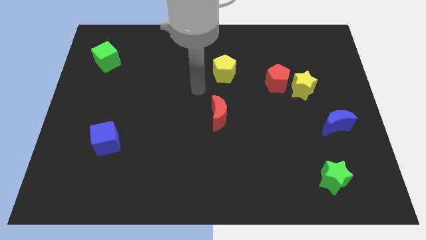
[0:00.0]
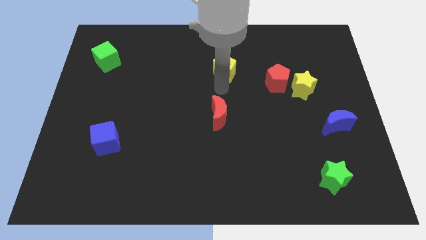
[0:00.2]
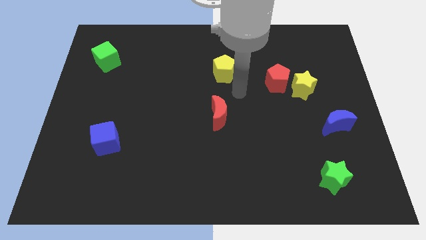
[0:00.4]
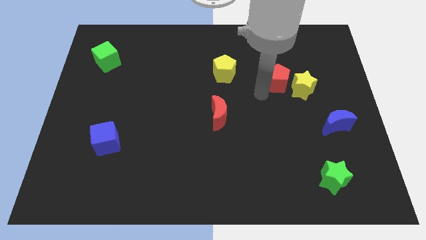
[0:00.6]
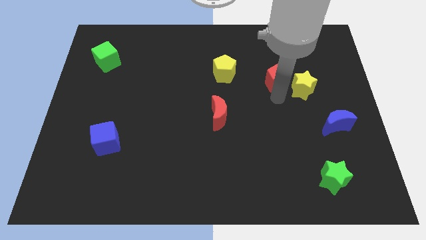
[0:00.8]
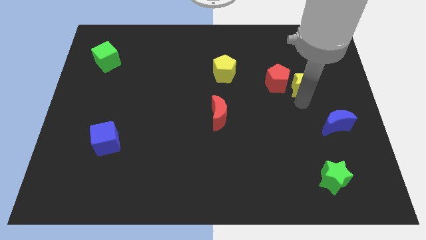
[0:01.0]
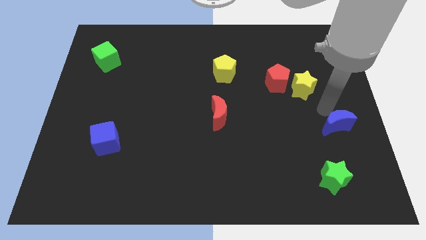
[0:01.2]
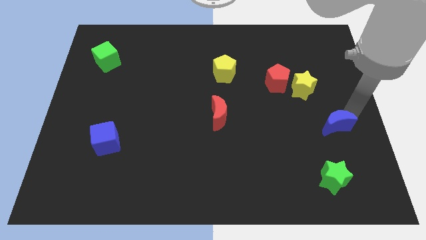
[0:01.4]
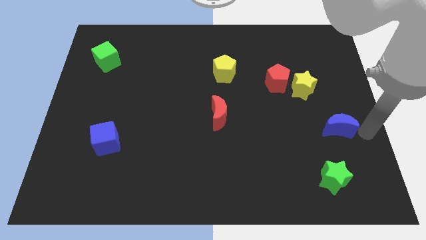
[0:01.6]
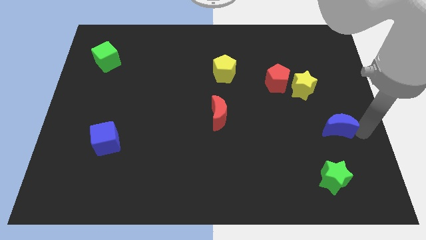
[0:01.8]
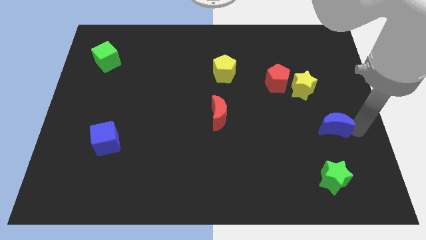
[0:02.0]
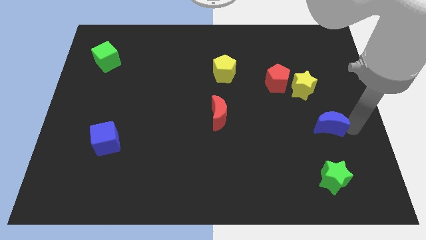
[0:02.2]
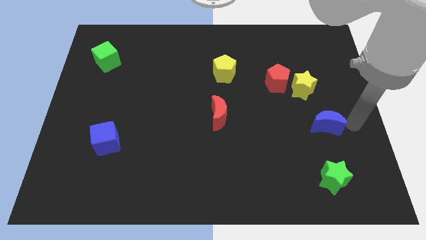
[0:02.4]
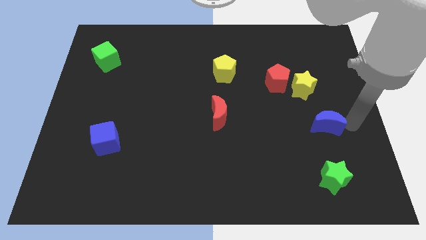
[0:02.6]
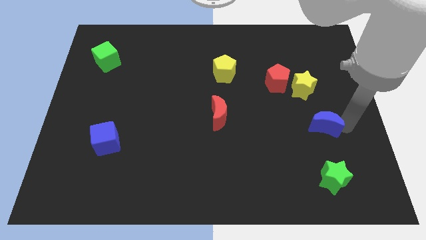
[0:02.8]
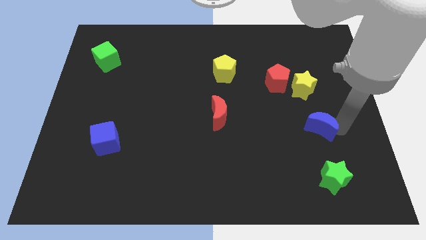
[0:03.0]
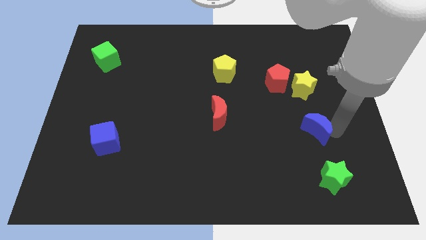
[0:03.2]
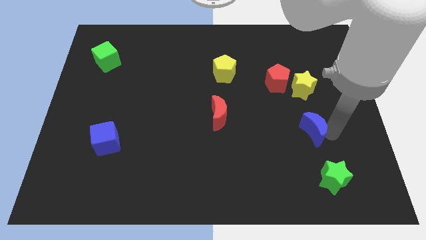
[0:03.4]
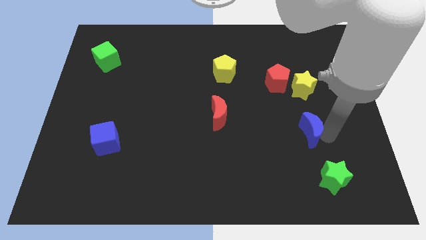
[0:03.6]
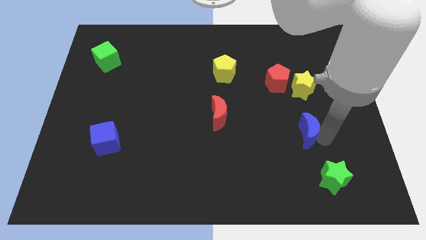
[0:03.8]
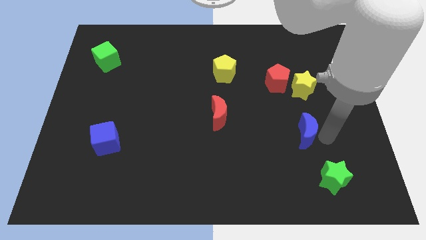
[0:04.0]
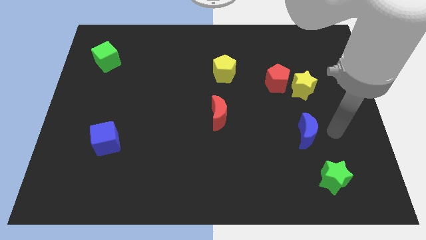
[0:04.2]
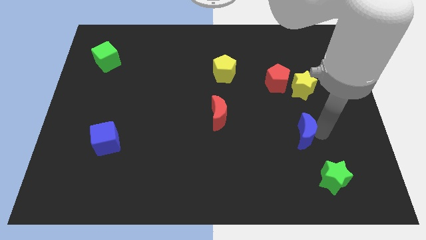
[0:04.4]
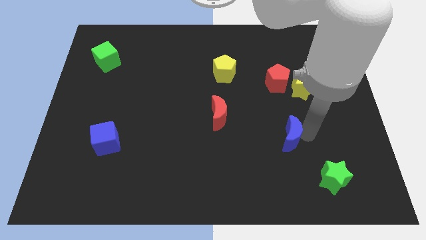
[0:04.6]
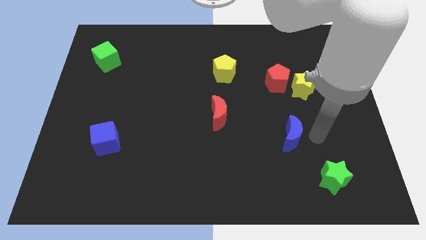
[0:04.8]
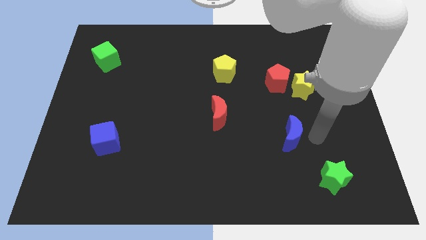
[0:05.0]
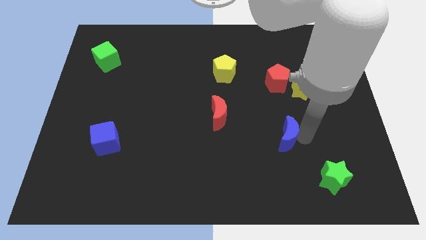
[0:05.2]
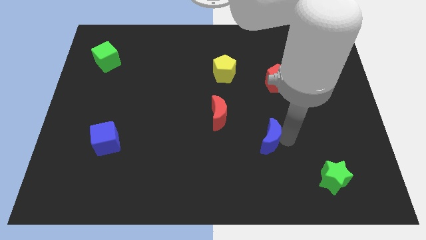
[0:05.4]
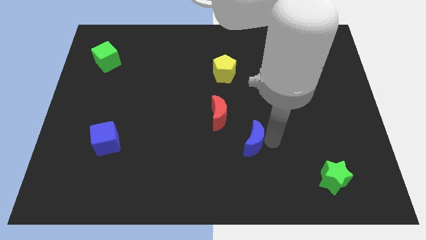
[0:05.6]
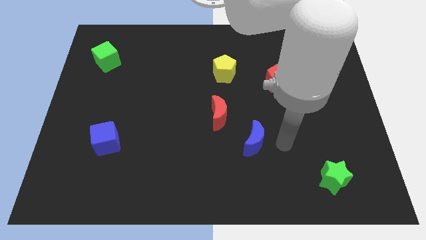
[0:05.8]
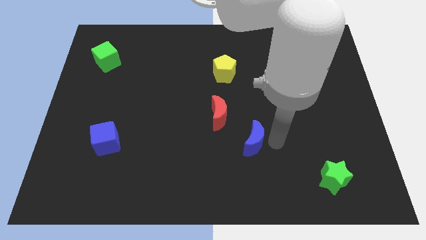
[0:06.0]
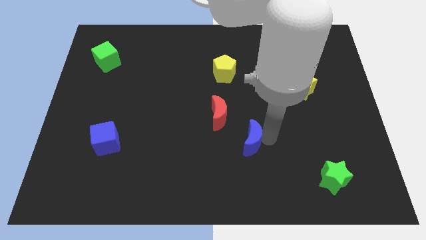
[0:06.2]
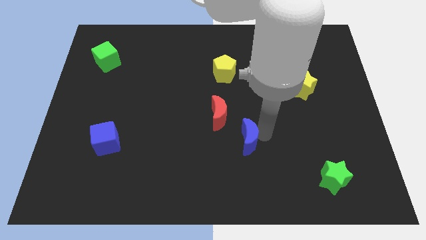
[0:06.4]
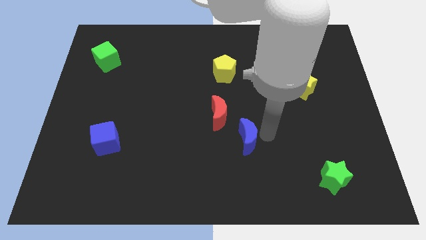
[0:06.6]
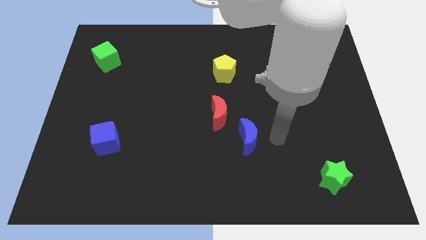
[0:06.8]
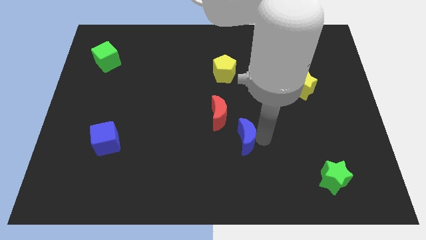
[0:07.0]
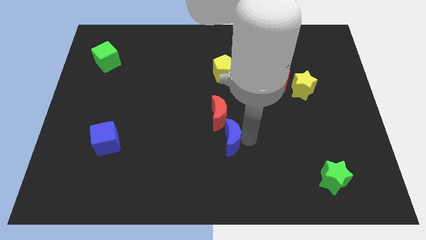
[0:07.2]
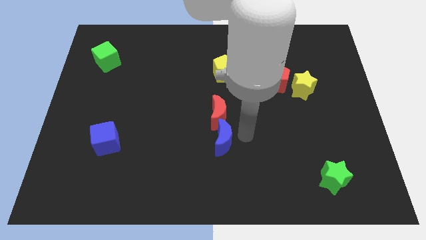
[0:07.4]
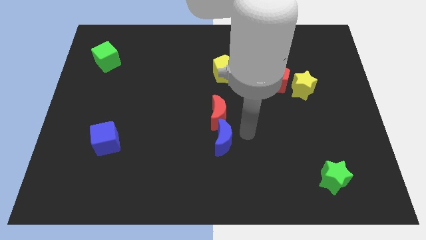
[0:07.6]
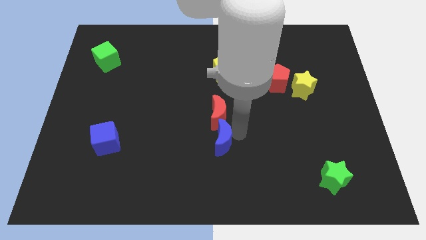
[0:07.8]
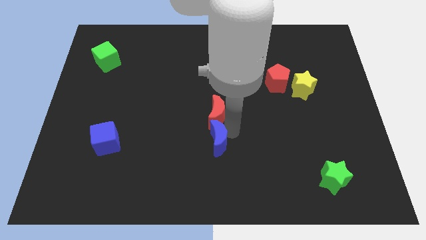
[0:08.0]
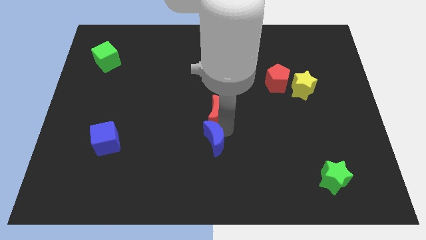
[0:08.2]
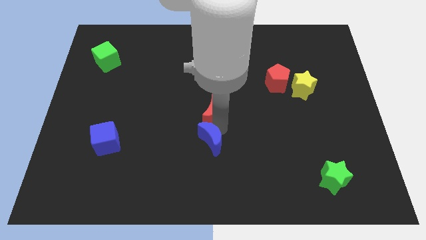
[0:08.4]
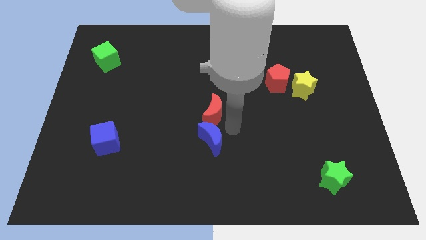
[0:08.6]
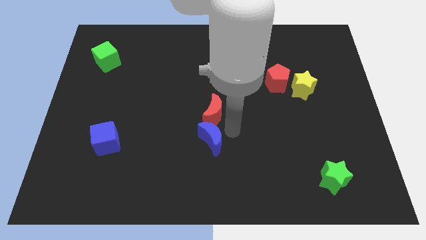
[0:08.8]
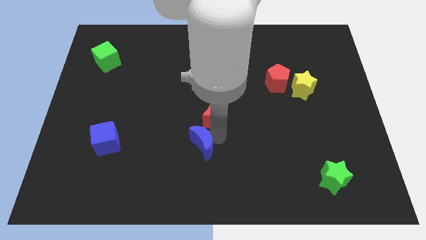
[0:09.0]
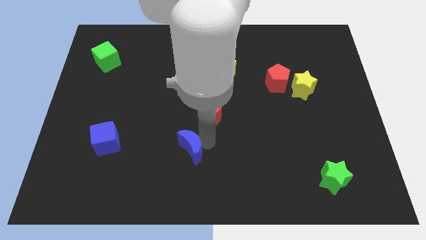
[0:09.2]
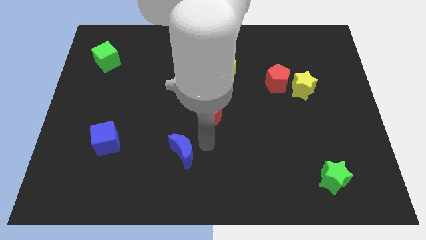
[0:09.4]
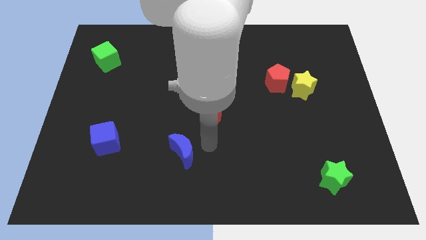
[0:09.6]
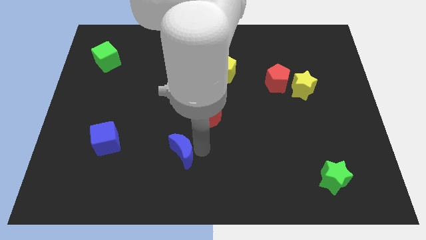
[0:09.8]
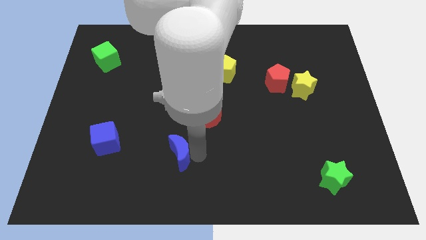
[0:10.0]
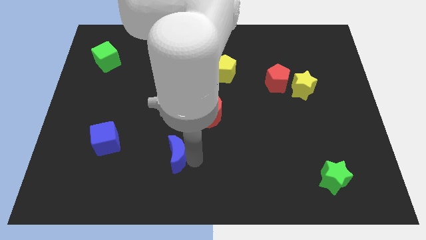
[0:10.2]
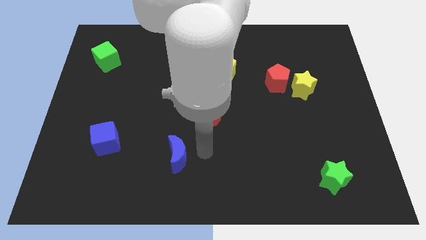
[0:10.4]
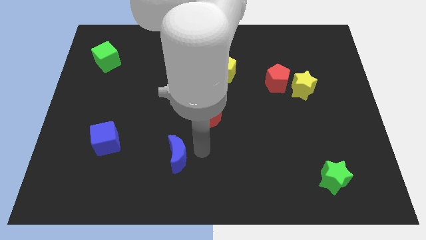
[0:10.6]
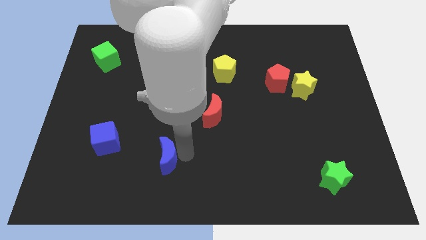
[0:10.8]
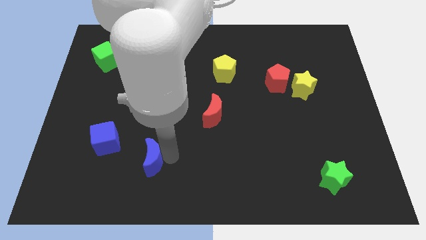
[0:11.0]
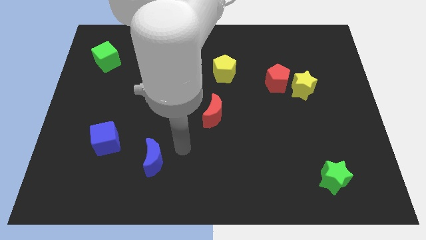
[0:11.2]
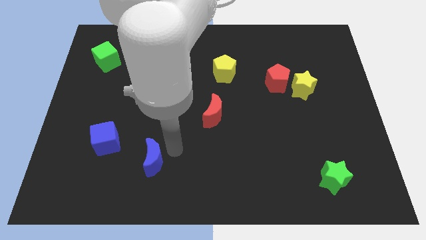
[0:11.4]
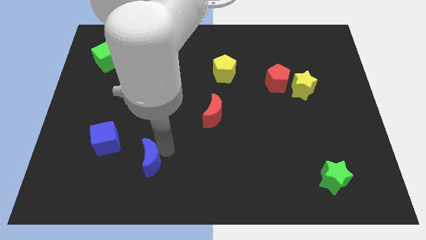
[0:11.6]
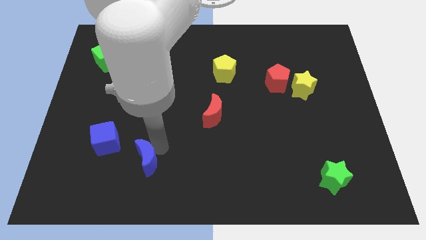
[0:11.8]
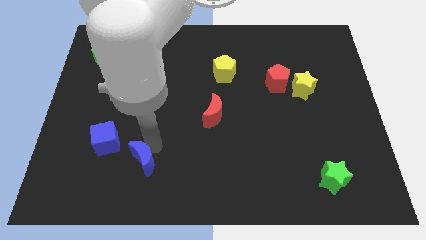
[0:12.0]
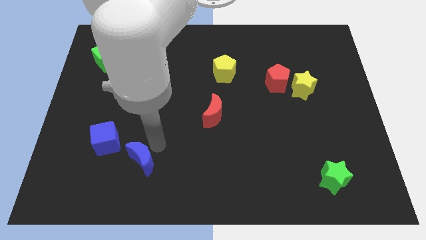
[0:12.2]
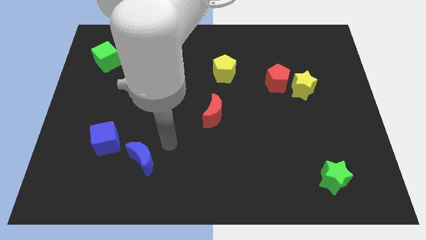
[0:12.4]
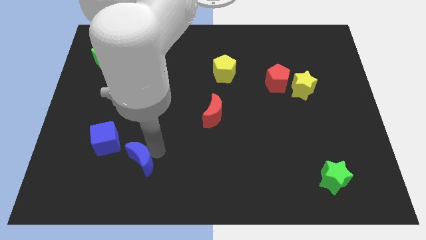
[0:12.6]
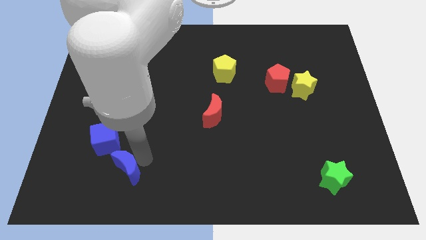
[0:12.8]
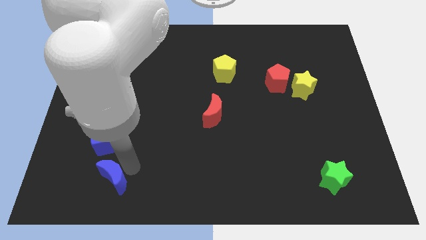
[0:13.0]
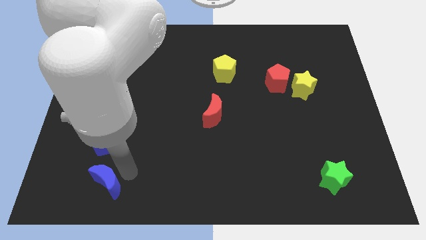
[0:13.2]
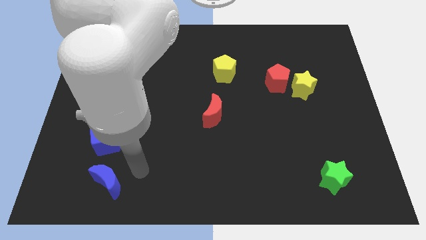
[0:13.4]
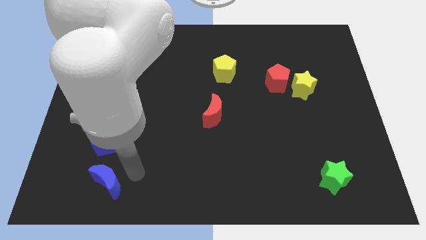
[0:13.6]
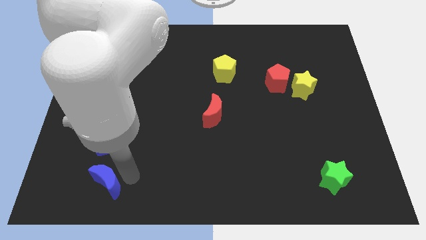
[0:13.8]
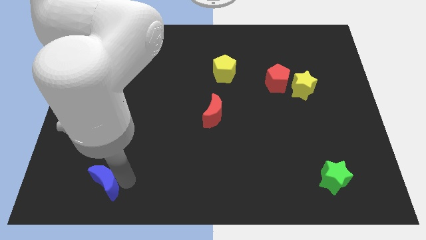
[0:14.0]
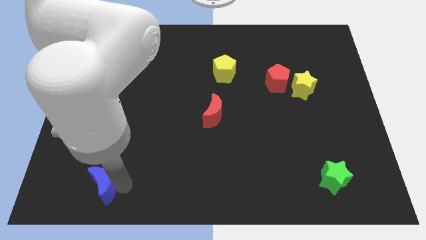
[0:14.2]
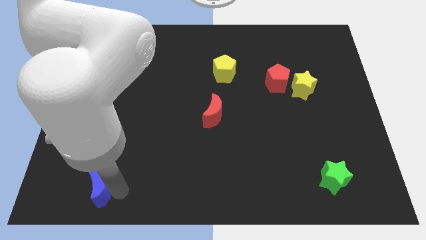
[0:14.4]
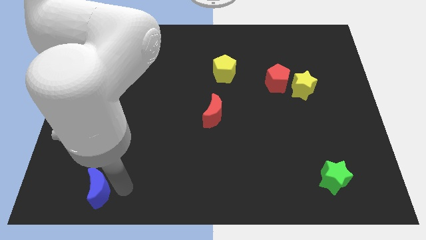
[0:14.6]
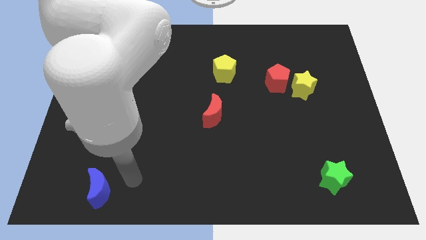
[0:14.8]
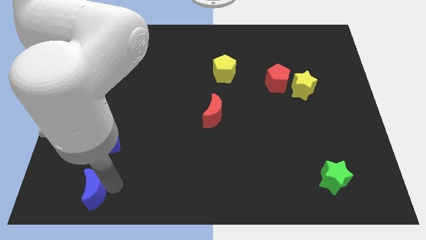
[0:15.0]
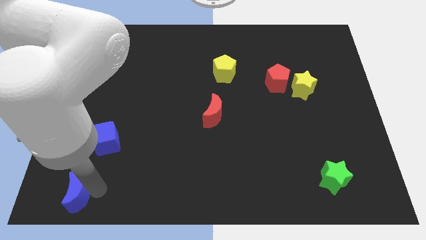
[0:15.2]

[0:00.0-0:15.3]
push the blue moon to the lower left corner
